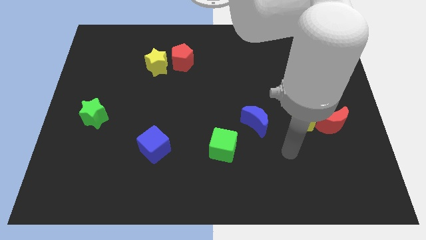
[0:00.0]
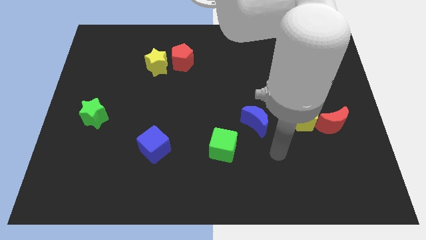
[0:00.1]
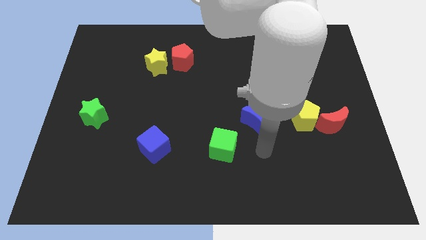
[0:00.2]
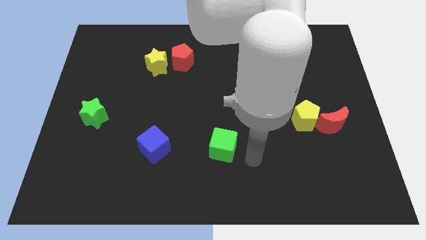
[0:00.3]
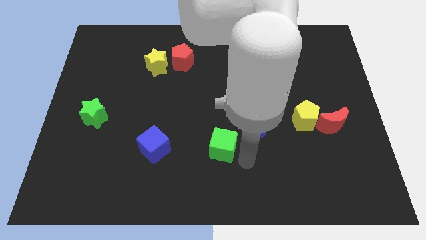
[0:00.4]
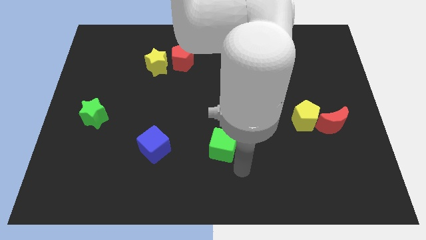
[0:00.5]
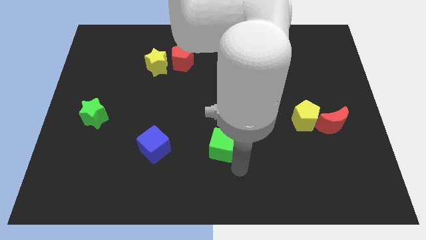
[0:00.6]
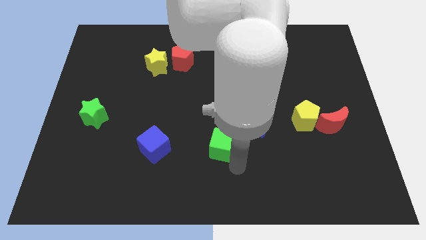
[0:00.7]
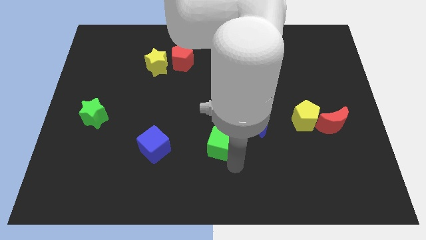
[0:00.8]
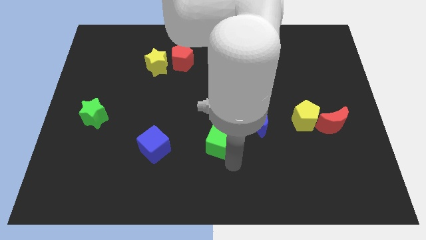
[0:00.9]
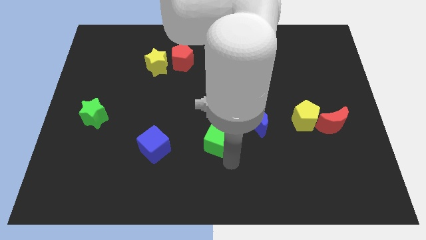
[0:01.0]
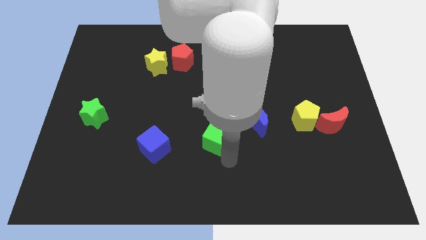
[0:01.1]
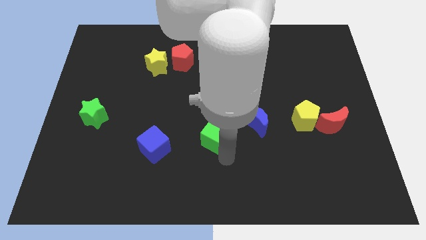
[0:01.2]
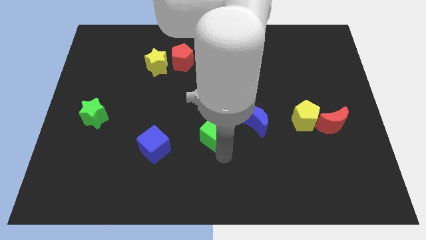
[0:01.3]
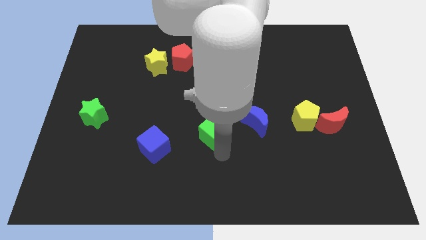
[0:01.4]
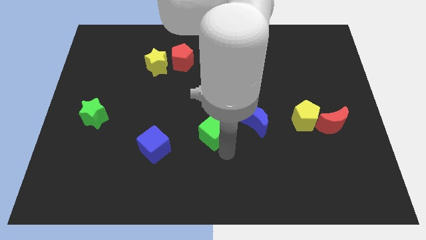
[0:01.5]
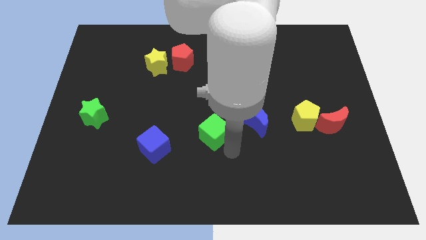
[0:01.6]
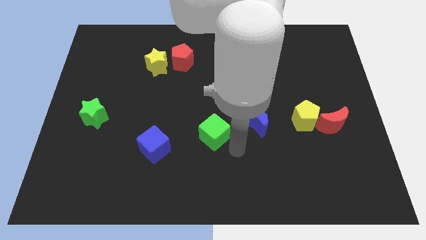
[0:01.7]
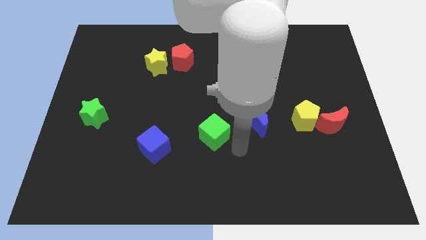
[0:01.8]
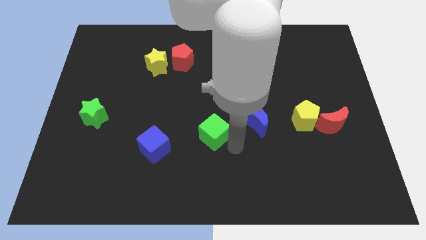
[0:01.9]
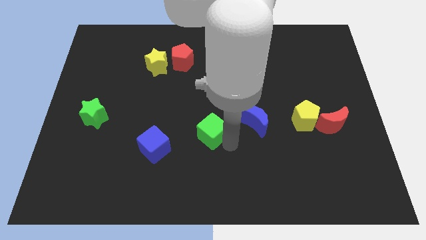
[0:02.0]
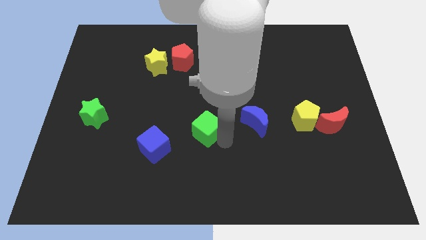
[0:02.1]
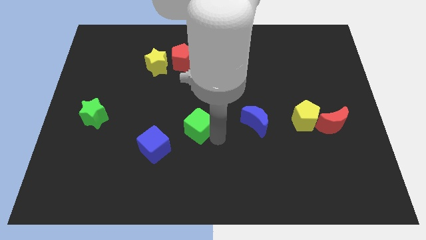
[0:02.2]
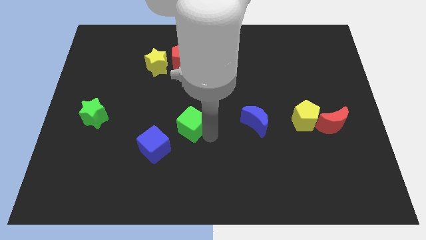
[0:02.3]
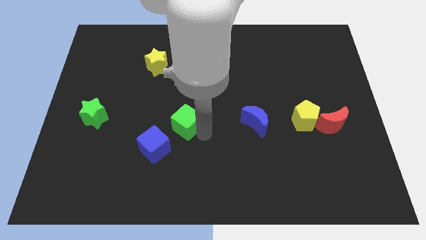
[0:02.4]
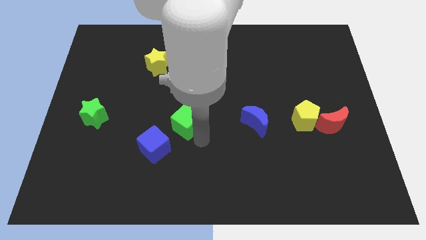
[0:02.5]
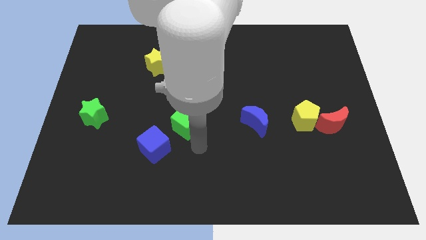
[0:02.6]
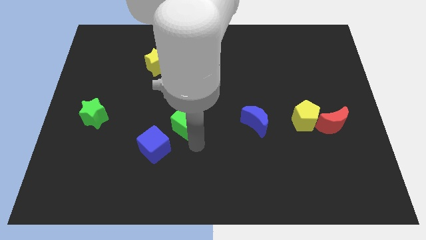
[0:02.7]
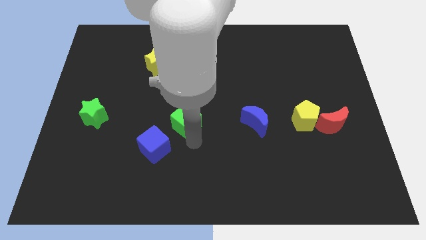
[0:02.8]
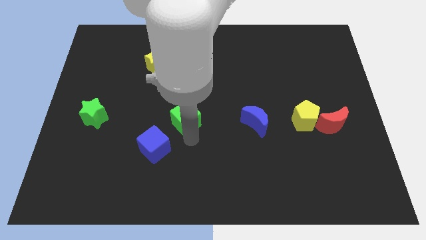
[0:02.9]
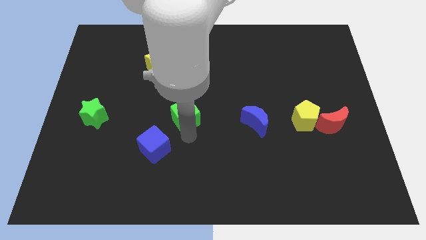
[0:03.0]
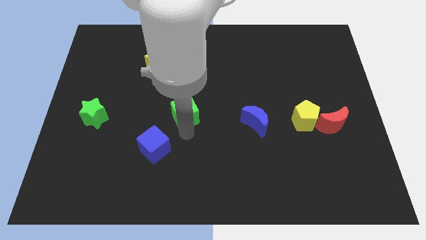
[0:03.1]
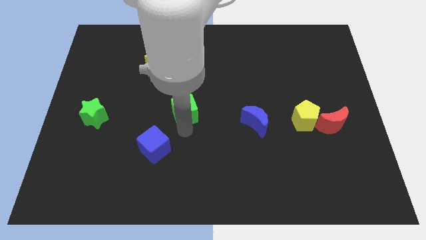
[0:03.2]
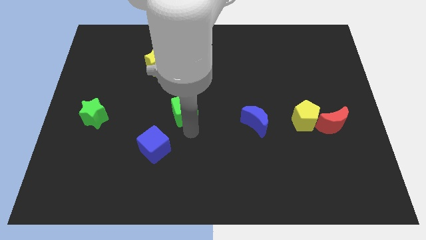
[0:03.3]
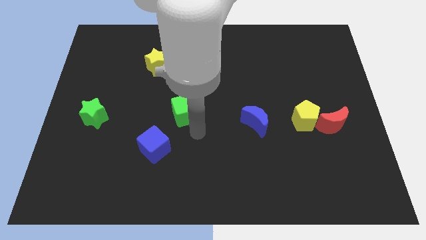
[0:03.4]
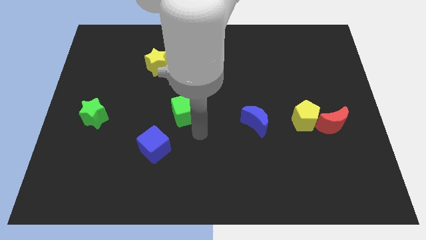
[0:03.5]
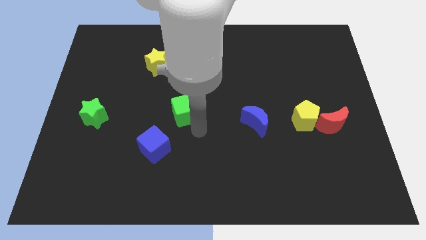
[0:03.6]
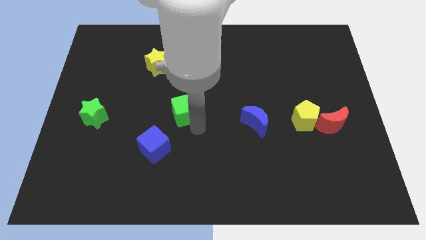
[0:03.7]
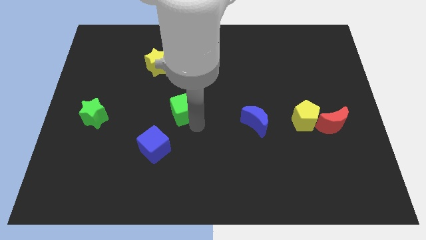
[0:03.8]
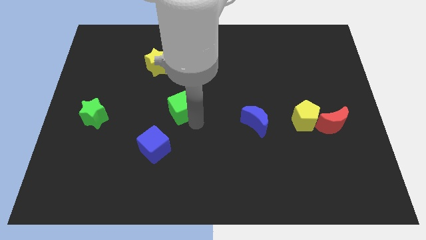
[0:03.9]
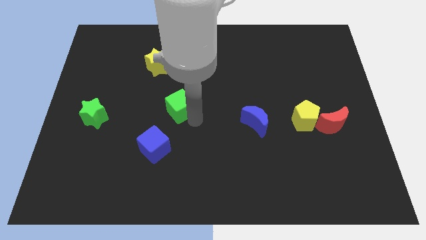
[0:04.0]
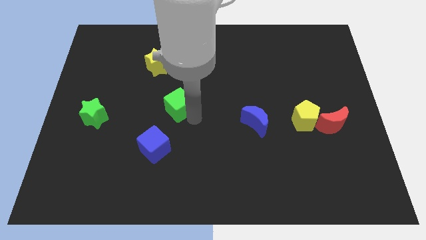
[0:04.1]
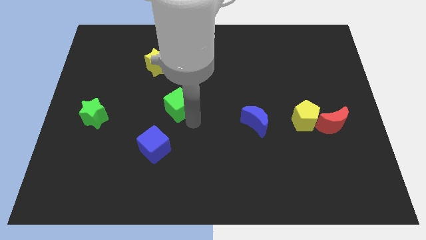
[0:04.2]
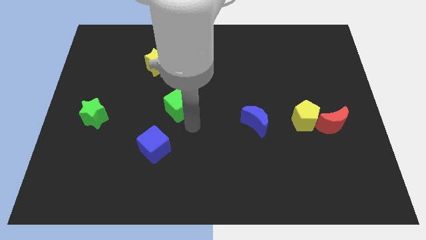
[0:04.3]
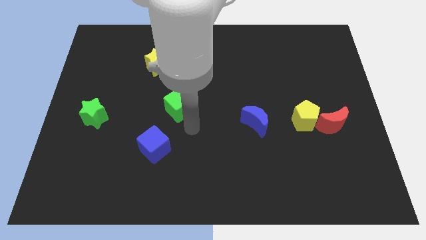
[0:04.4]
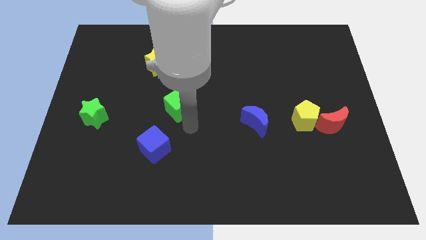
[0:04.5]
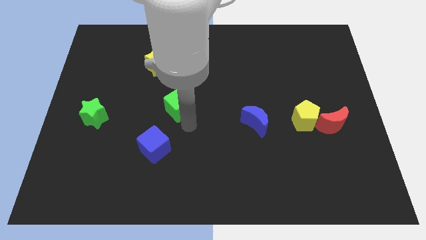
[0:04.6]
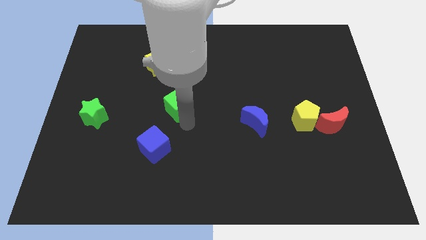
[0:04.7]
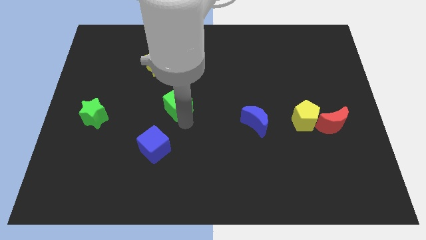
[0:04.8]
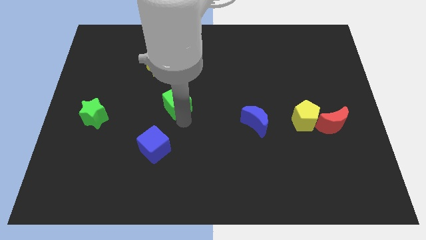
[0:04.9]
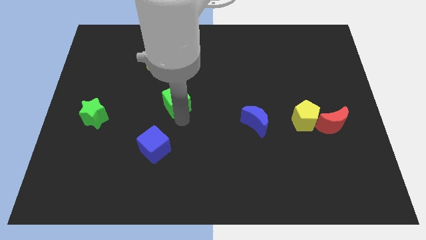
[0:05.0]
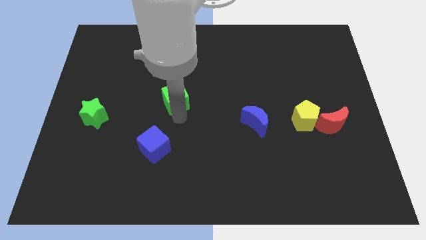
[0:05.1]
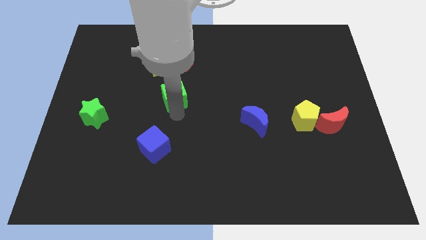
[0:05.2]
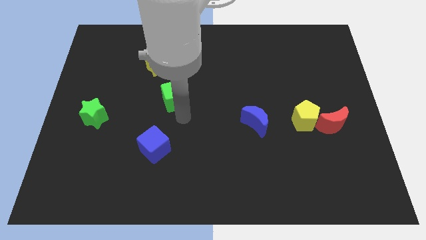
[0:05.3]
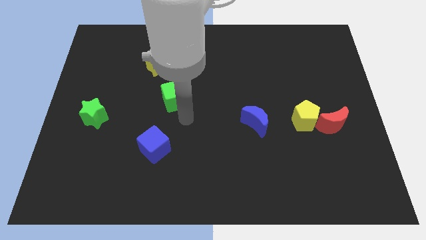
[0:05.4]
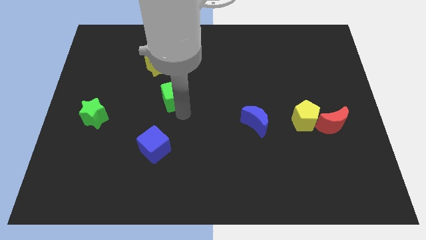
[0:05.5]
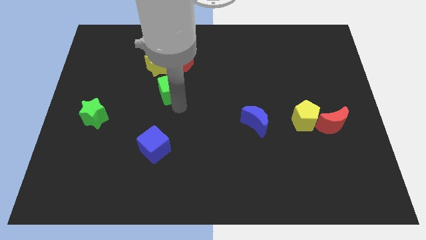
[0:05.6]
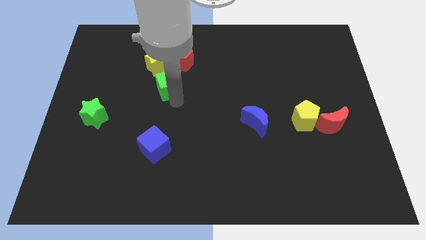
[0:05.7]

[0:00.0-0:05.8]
push the green cube to the bottom left side of the red pentagon

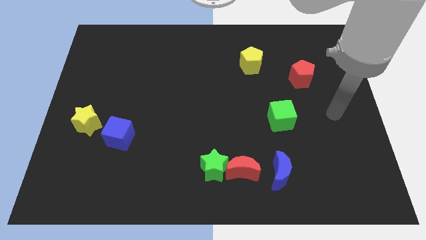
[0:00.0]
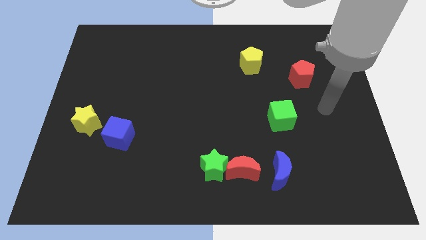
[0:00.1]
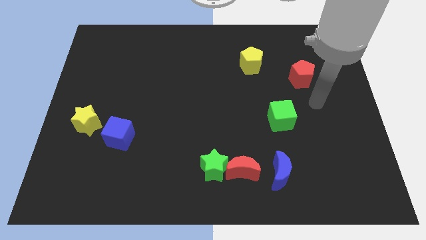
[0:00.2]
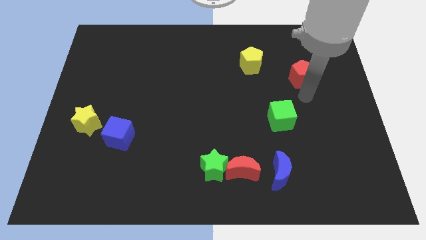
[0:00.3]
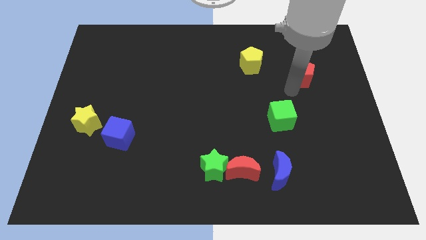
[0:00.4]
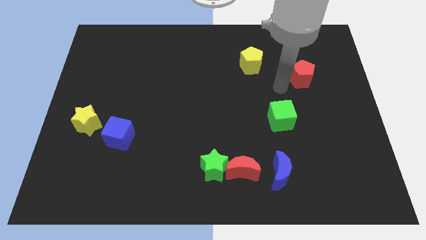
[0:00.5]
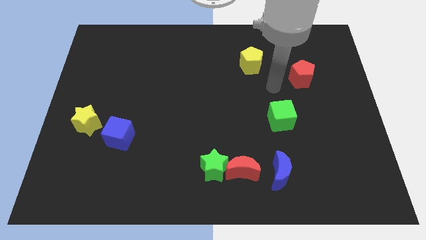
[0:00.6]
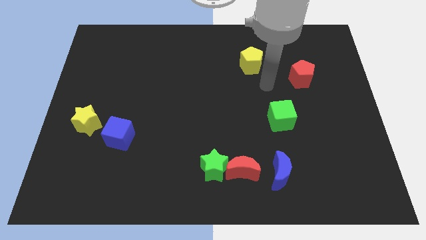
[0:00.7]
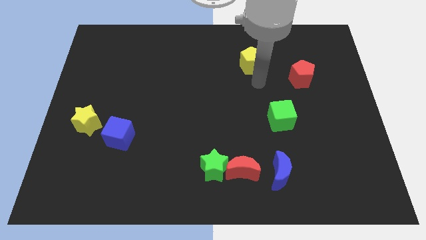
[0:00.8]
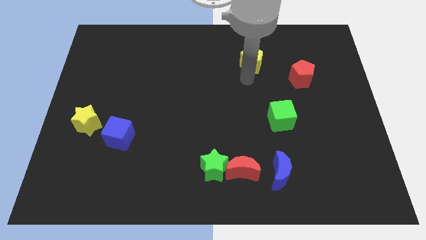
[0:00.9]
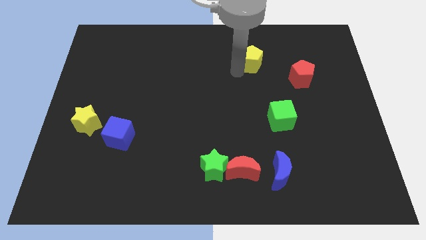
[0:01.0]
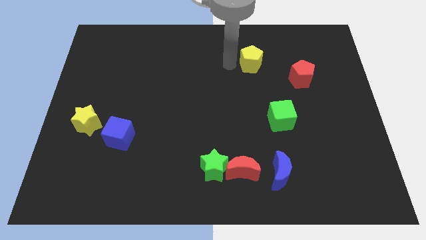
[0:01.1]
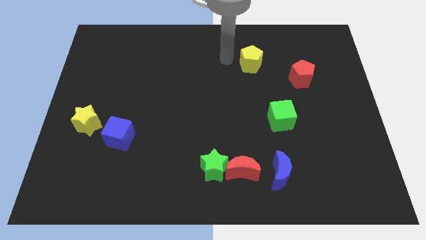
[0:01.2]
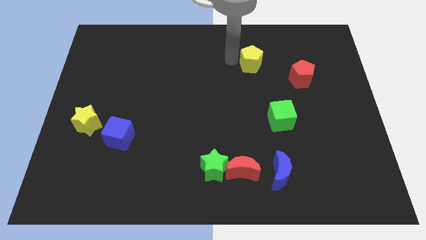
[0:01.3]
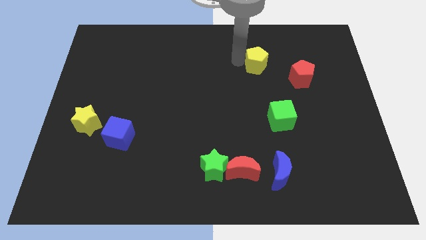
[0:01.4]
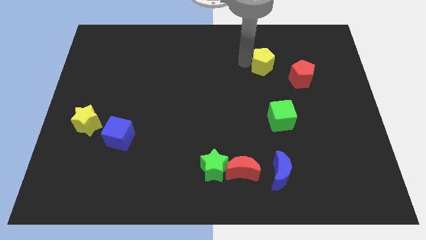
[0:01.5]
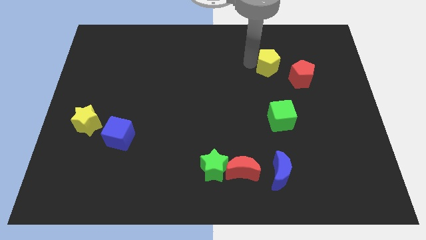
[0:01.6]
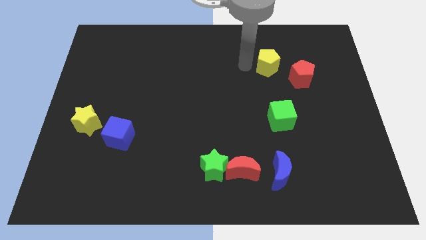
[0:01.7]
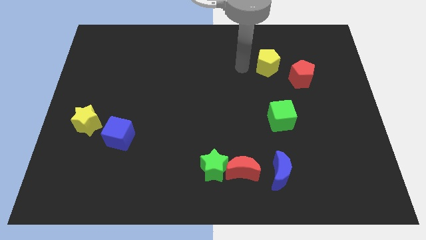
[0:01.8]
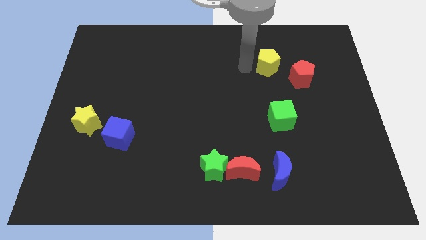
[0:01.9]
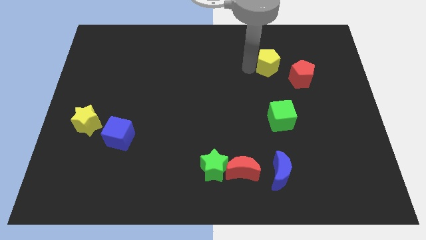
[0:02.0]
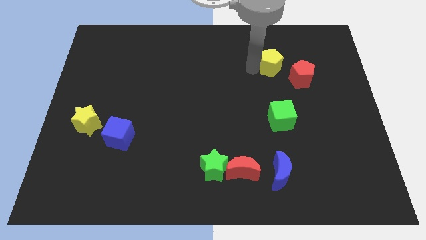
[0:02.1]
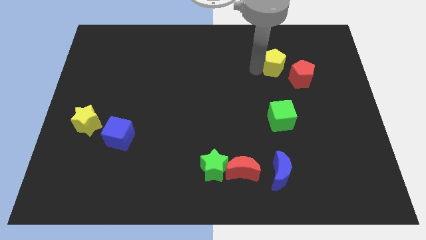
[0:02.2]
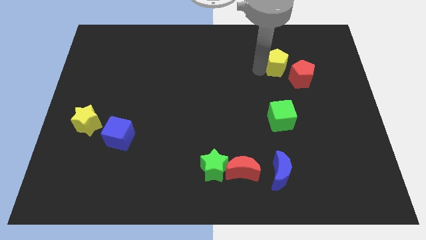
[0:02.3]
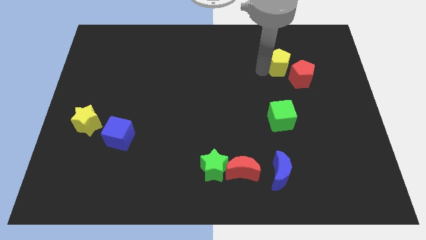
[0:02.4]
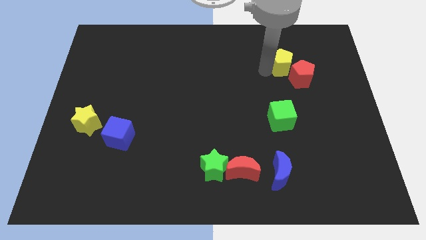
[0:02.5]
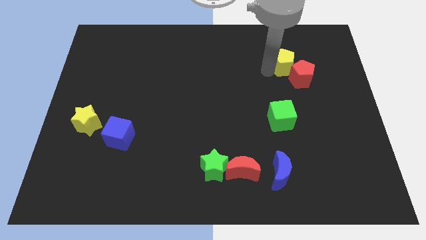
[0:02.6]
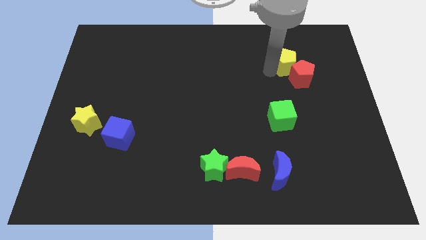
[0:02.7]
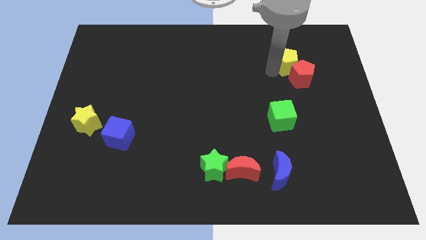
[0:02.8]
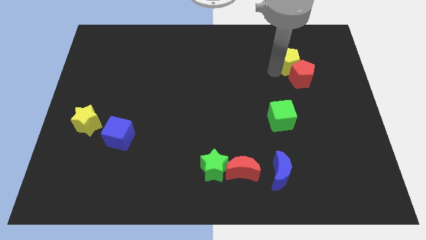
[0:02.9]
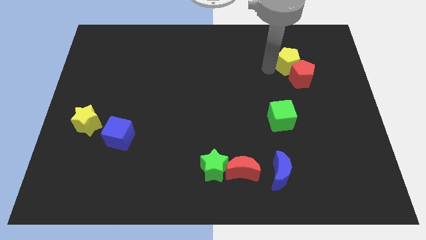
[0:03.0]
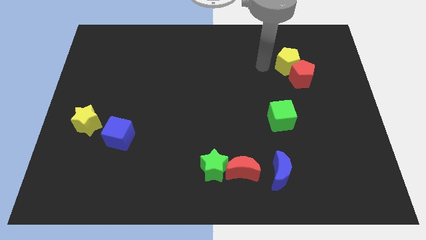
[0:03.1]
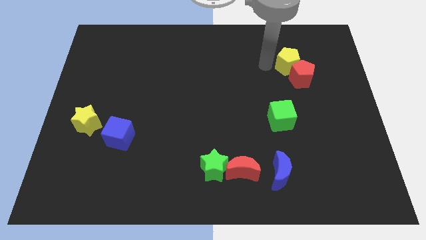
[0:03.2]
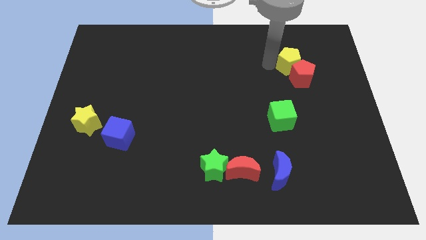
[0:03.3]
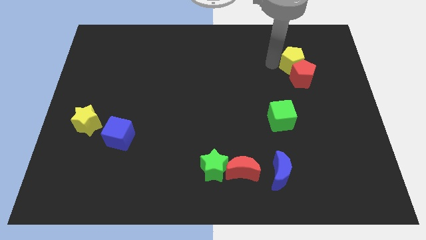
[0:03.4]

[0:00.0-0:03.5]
move the yellow pentagon diagonally up and to the right of the red pentagon
